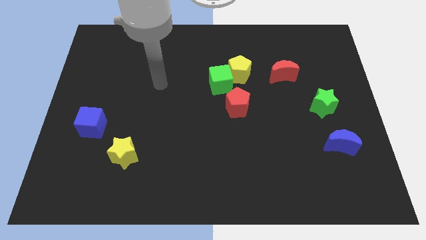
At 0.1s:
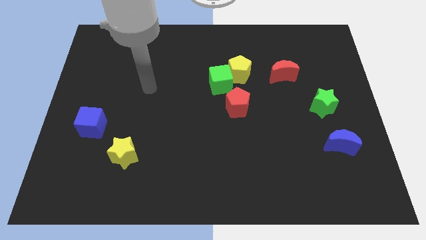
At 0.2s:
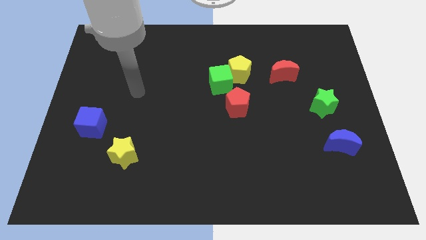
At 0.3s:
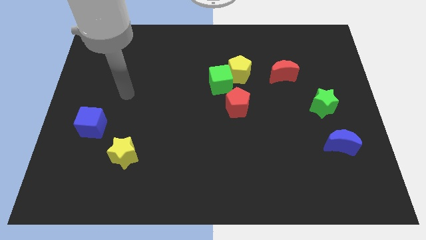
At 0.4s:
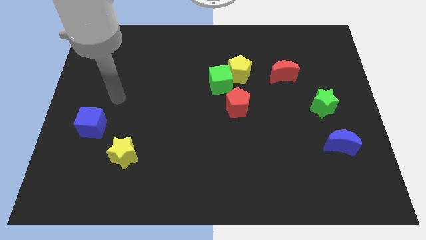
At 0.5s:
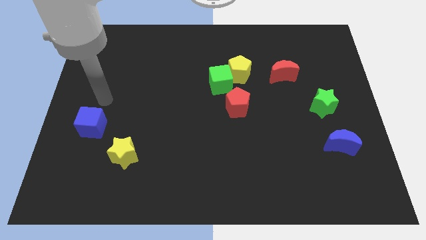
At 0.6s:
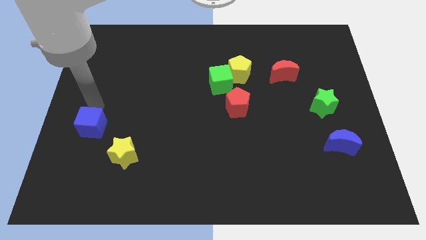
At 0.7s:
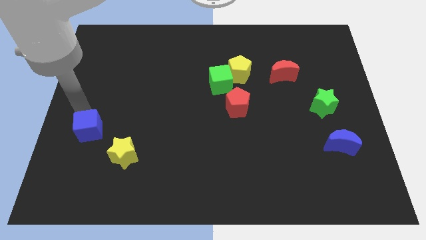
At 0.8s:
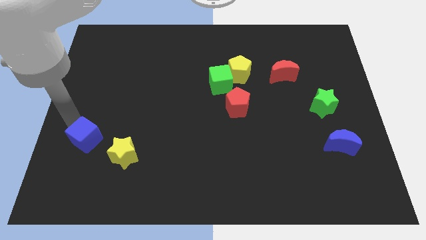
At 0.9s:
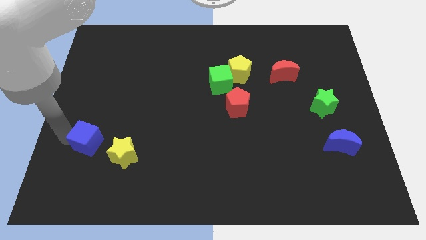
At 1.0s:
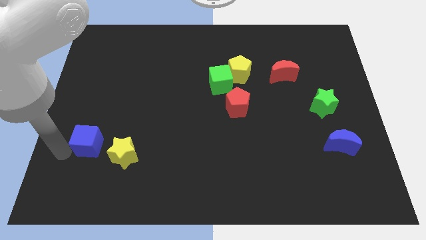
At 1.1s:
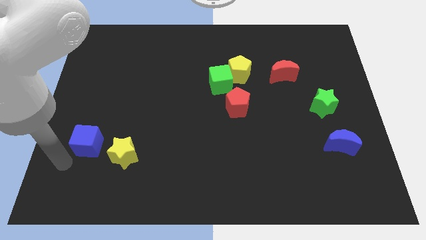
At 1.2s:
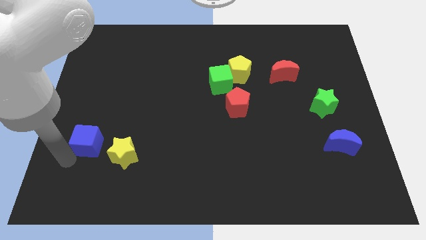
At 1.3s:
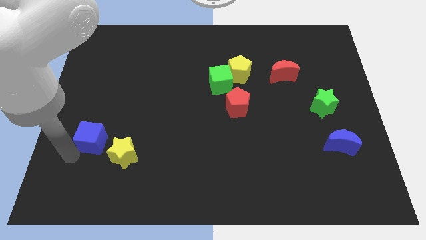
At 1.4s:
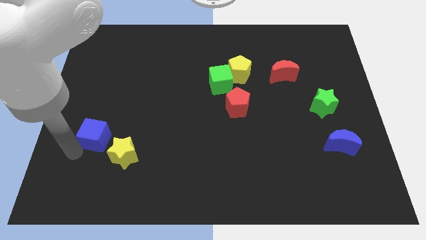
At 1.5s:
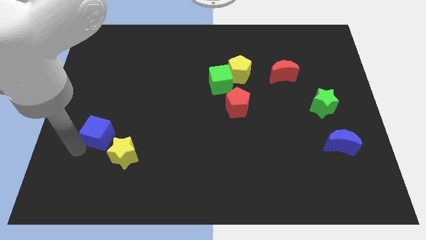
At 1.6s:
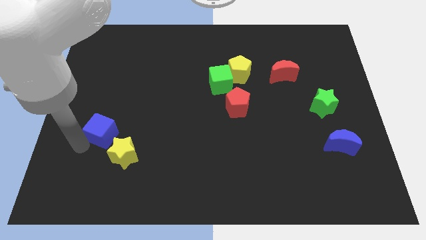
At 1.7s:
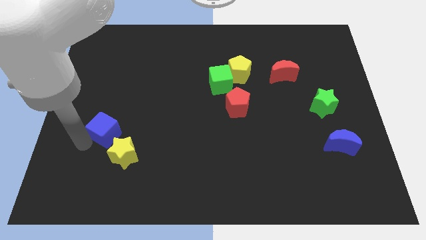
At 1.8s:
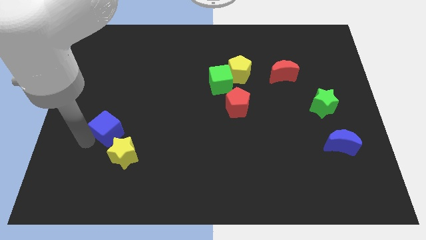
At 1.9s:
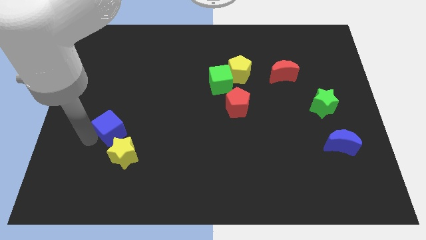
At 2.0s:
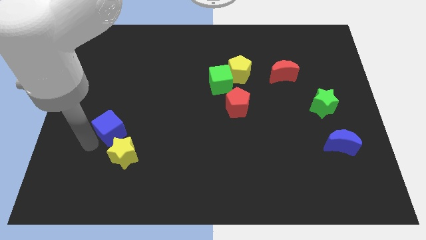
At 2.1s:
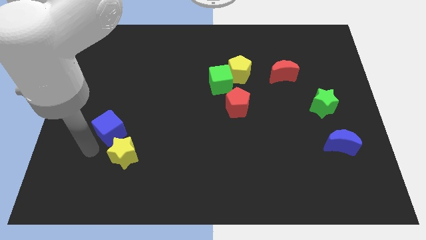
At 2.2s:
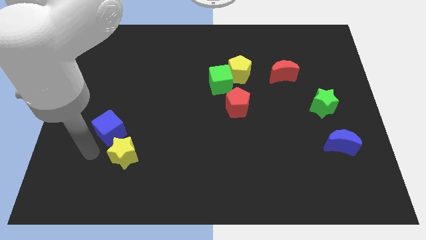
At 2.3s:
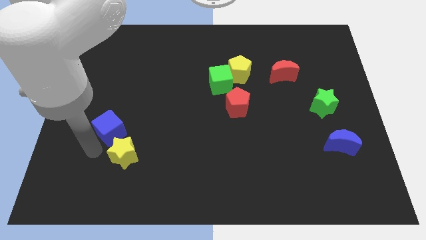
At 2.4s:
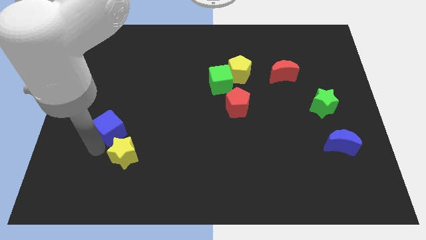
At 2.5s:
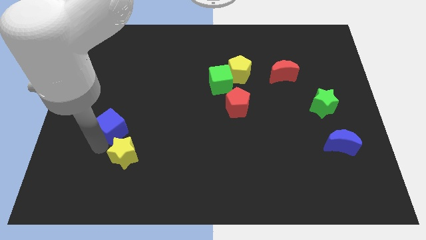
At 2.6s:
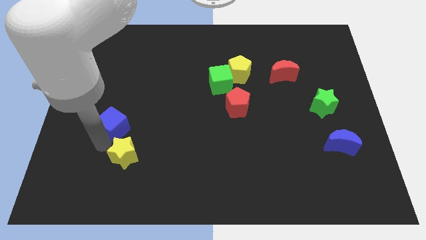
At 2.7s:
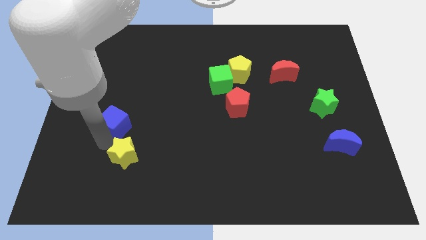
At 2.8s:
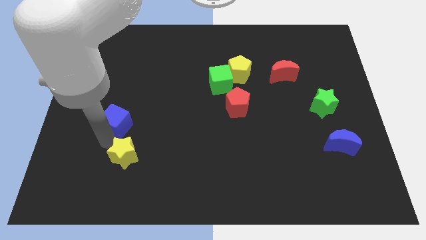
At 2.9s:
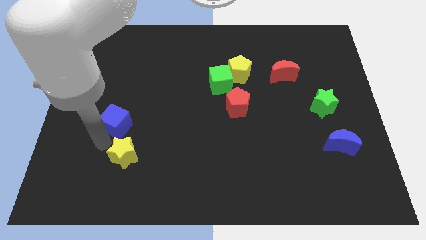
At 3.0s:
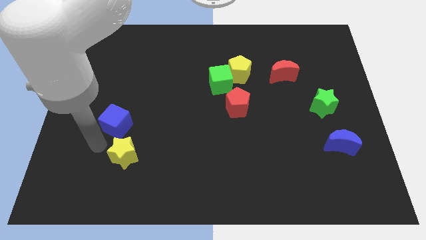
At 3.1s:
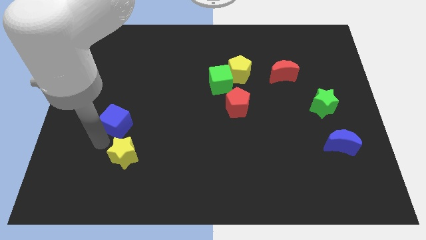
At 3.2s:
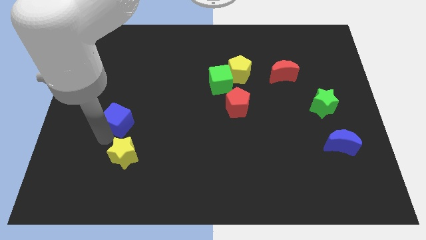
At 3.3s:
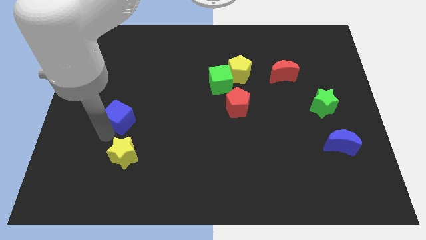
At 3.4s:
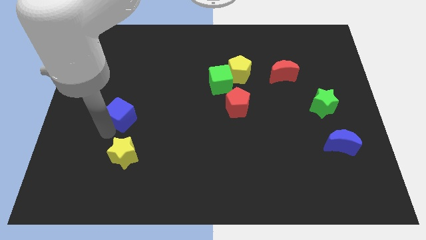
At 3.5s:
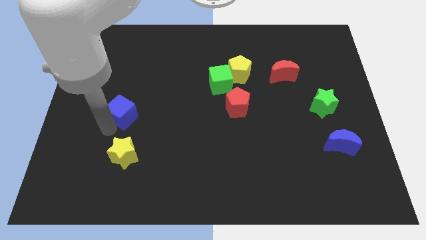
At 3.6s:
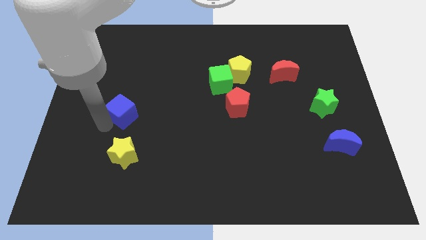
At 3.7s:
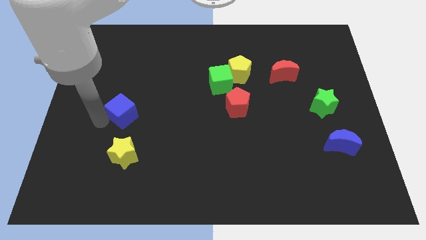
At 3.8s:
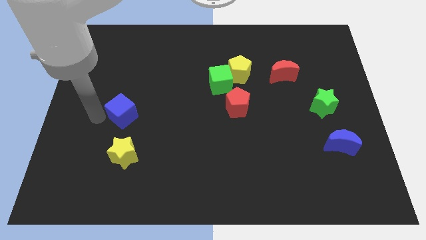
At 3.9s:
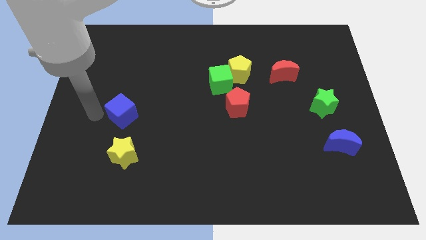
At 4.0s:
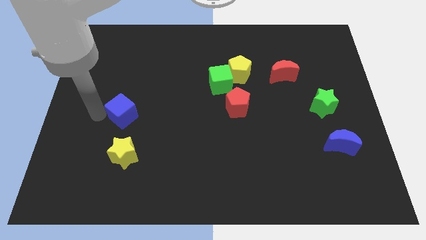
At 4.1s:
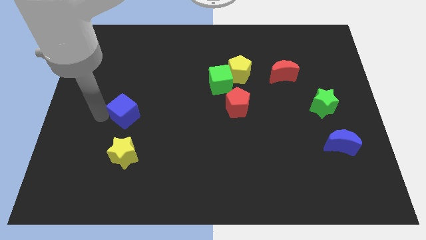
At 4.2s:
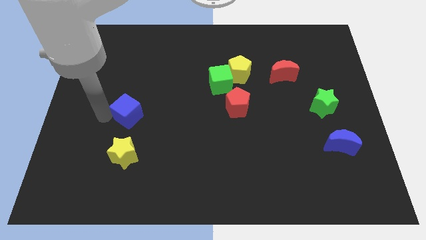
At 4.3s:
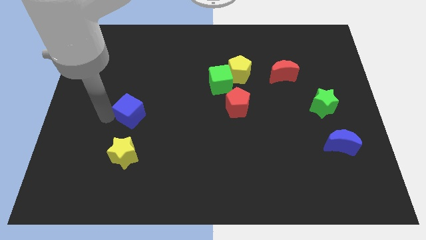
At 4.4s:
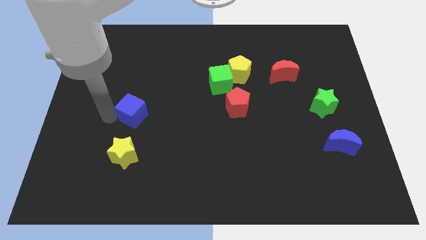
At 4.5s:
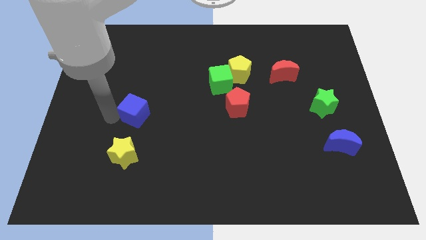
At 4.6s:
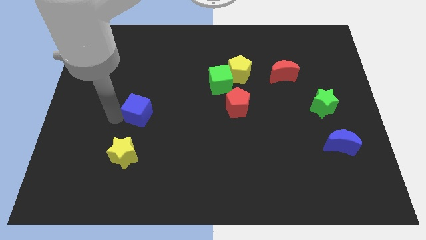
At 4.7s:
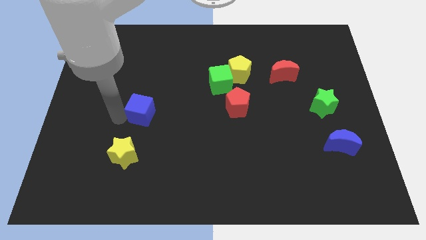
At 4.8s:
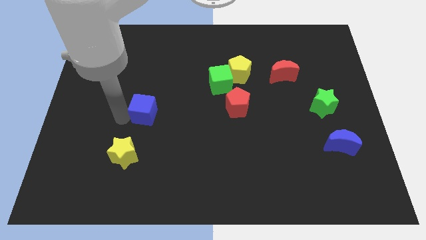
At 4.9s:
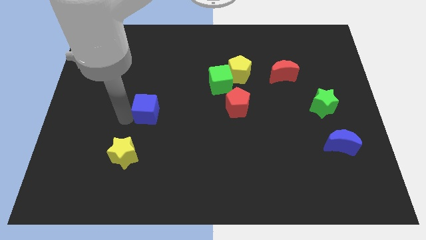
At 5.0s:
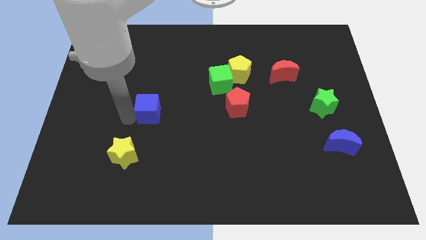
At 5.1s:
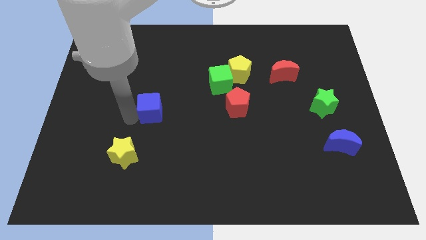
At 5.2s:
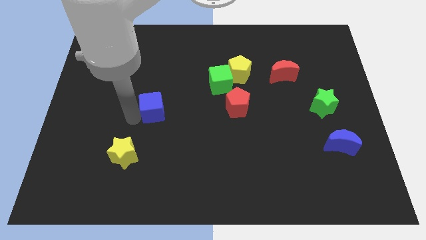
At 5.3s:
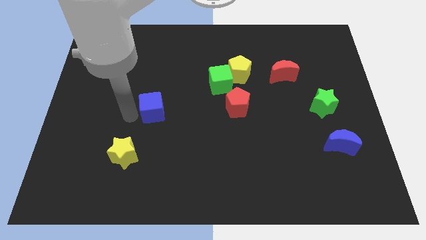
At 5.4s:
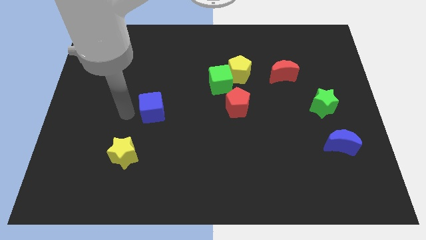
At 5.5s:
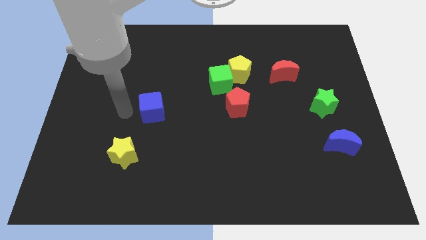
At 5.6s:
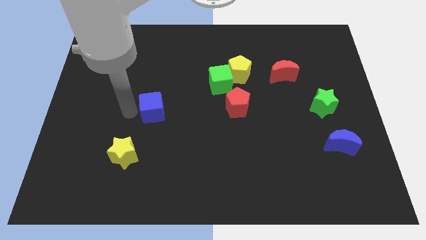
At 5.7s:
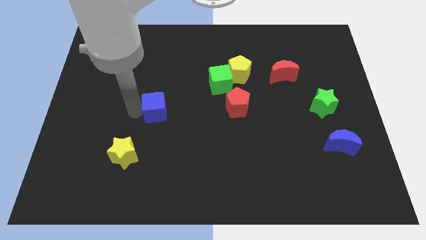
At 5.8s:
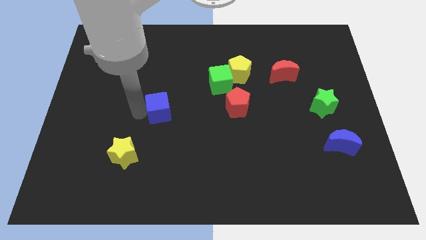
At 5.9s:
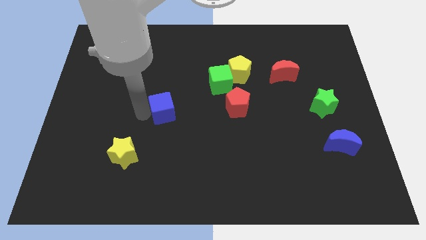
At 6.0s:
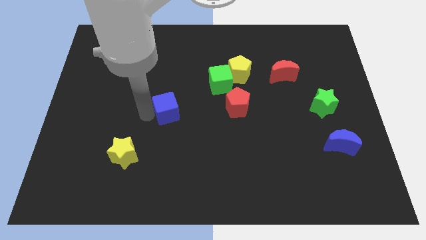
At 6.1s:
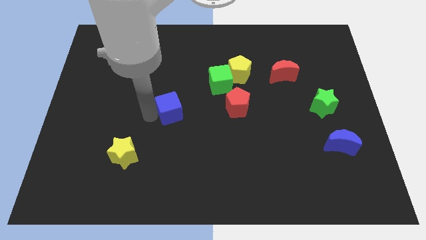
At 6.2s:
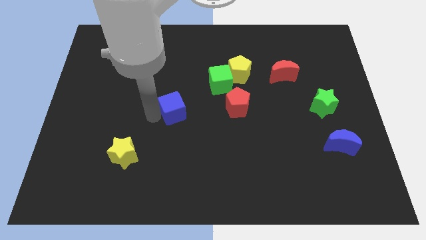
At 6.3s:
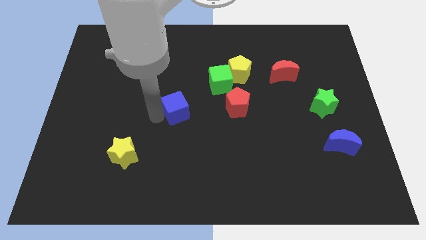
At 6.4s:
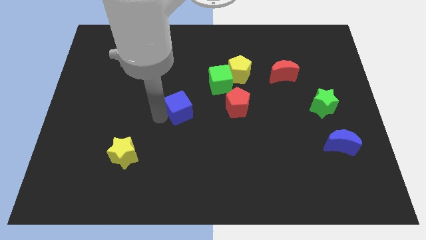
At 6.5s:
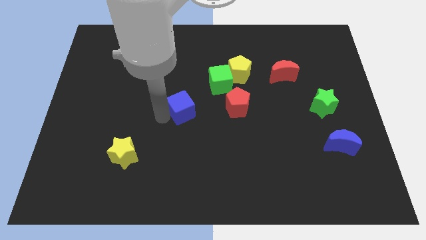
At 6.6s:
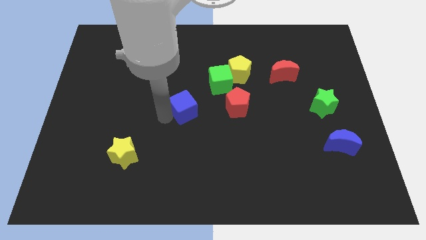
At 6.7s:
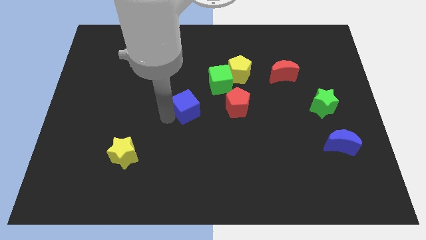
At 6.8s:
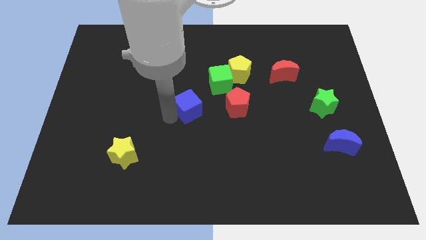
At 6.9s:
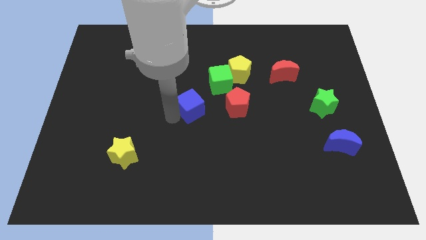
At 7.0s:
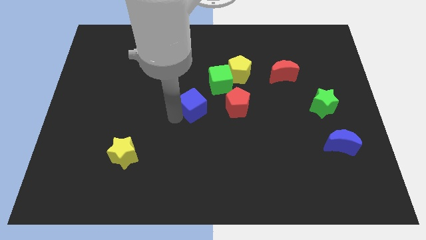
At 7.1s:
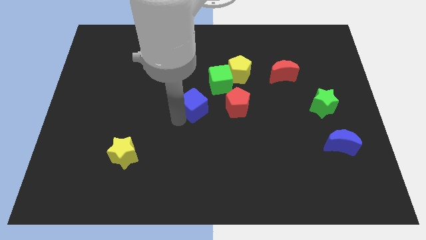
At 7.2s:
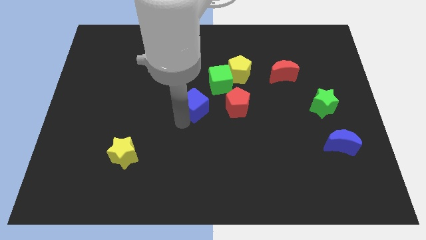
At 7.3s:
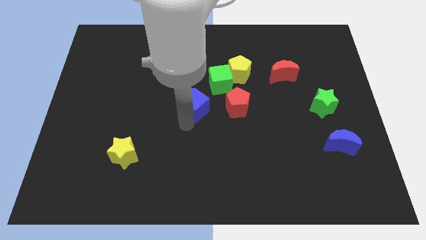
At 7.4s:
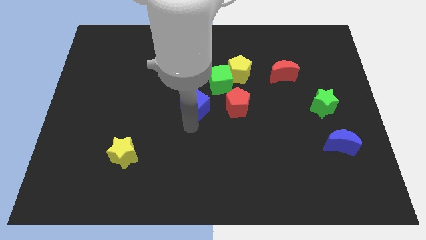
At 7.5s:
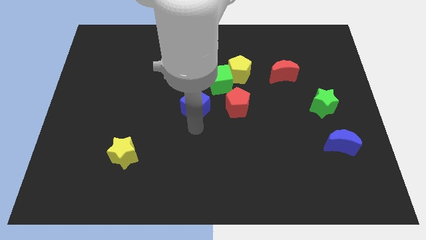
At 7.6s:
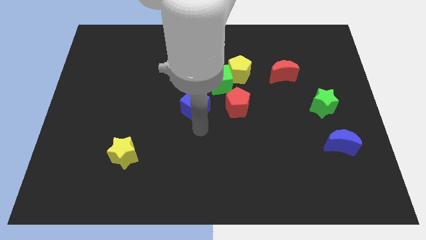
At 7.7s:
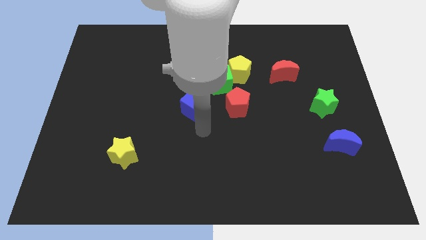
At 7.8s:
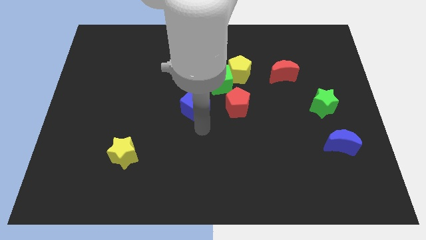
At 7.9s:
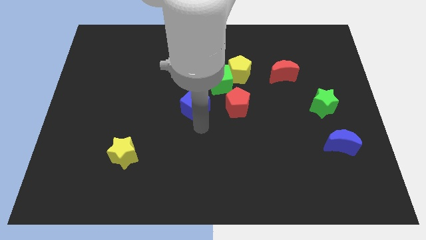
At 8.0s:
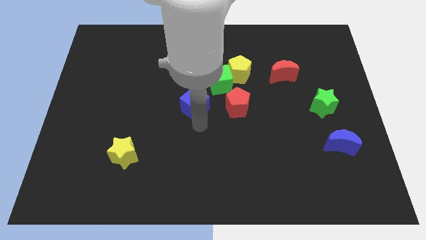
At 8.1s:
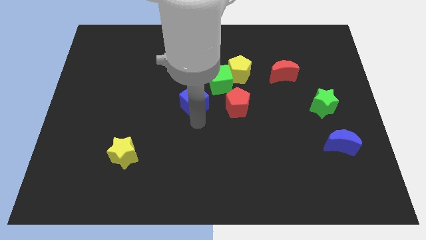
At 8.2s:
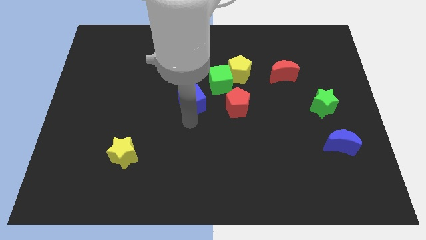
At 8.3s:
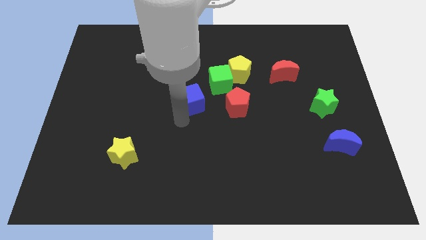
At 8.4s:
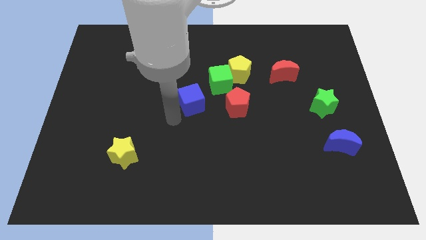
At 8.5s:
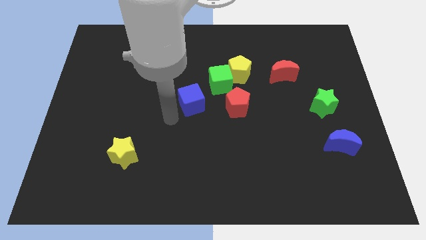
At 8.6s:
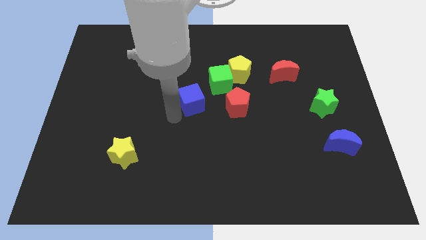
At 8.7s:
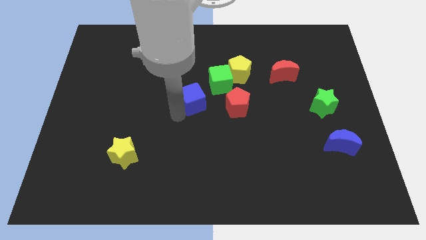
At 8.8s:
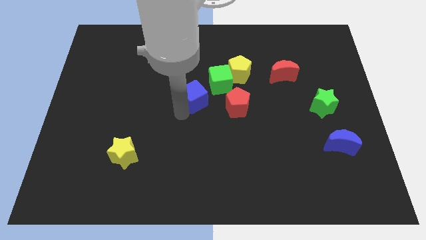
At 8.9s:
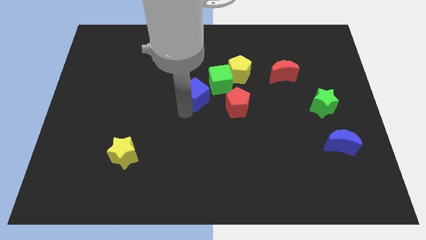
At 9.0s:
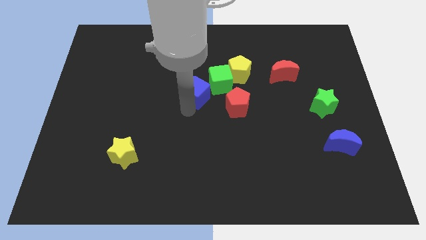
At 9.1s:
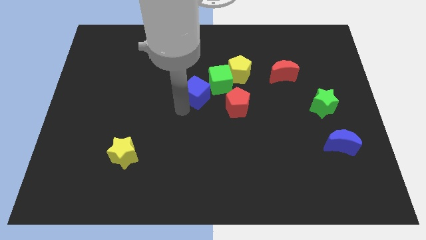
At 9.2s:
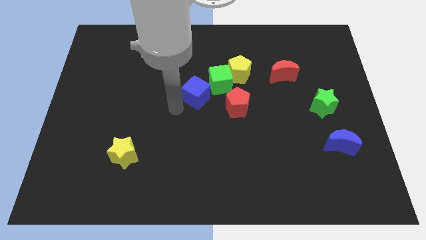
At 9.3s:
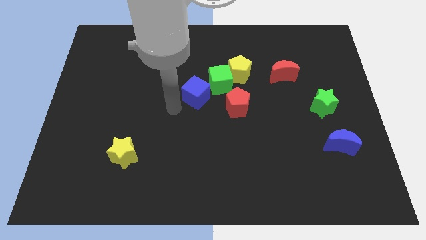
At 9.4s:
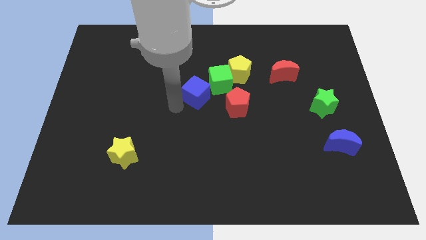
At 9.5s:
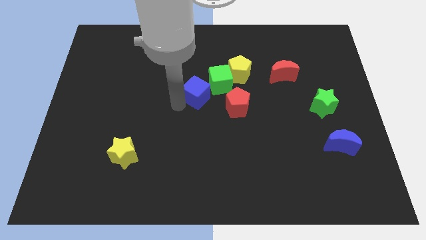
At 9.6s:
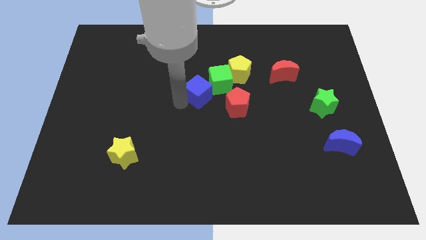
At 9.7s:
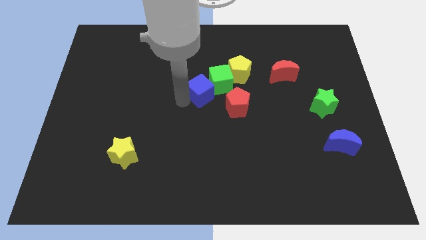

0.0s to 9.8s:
put the blue cube close to the green cube
